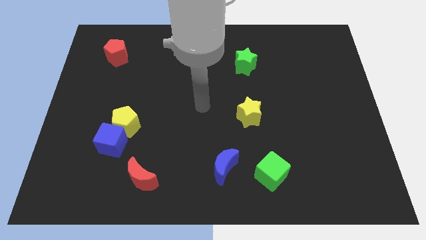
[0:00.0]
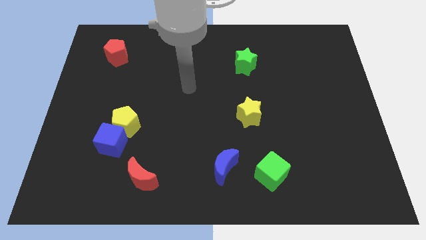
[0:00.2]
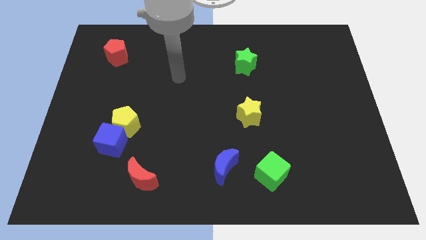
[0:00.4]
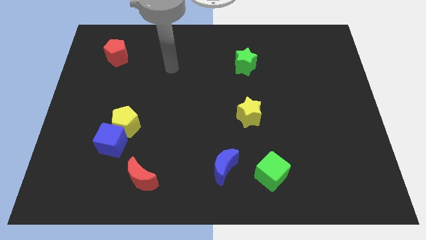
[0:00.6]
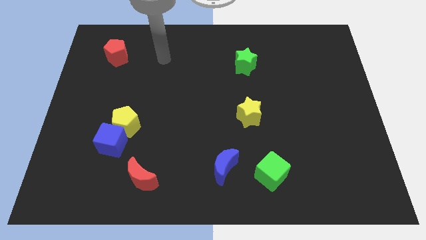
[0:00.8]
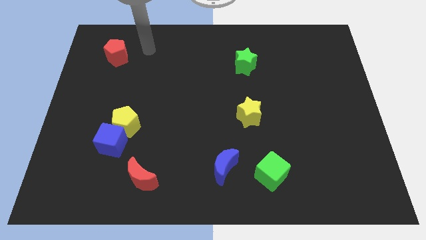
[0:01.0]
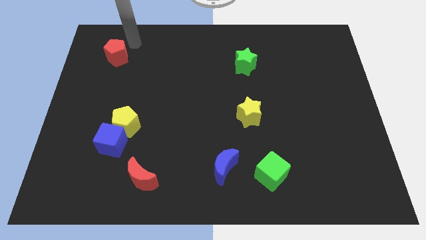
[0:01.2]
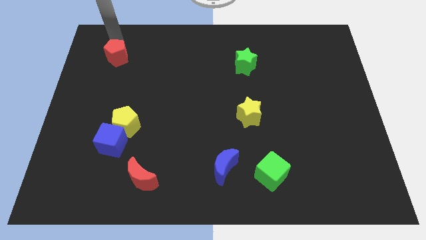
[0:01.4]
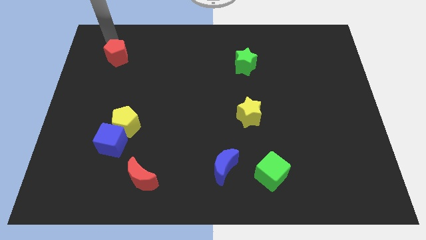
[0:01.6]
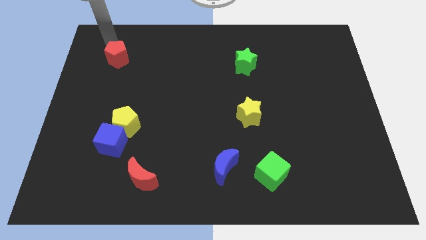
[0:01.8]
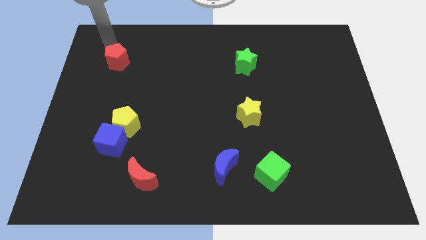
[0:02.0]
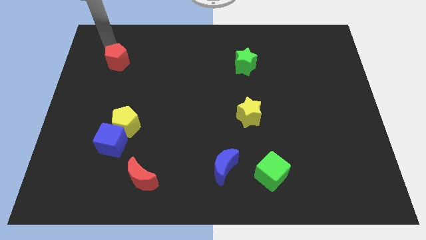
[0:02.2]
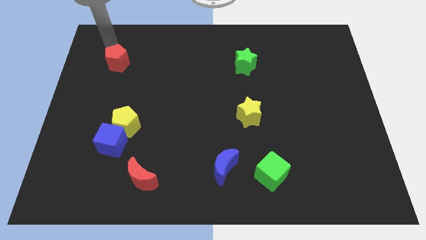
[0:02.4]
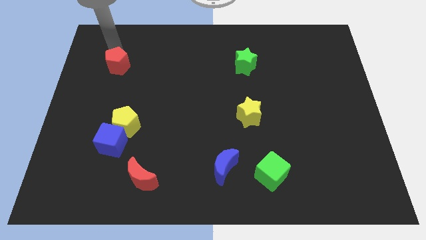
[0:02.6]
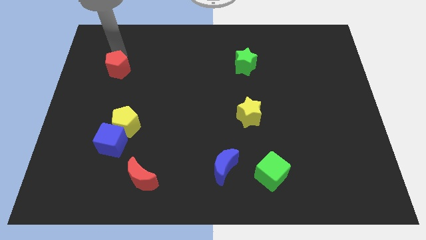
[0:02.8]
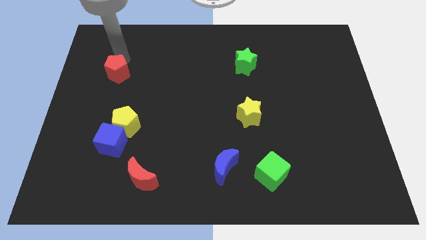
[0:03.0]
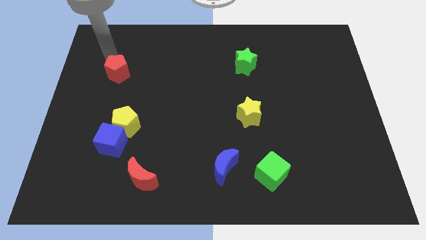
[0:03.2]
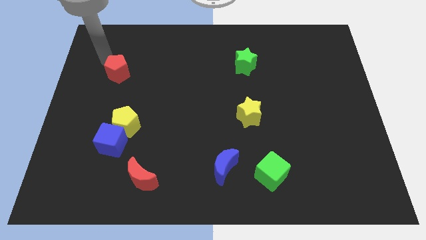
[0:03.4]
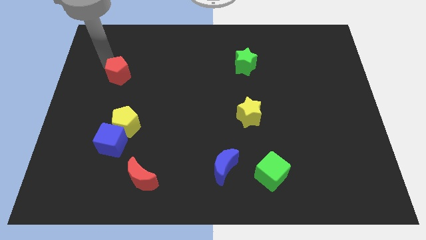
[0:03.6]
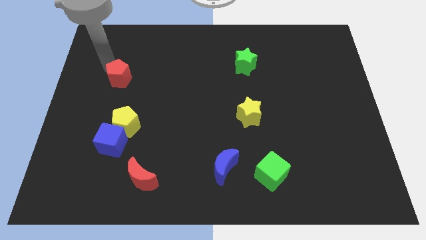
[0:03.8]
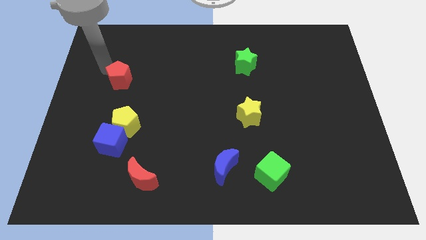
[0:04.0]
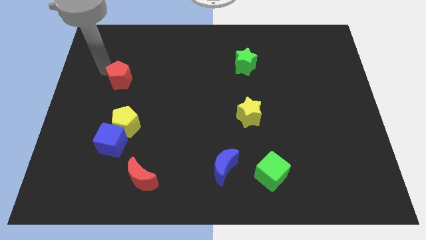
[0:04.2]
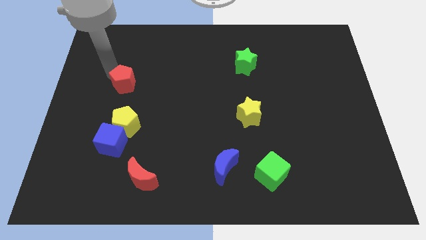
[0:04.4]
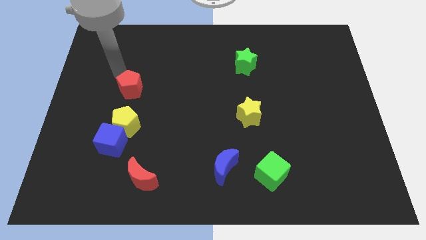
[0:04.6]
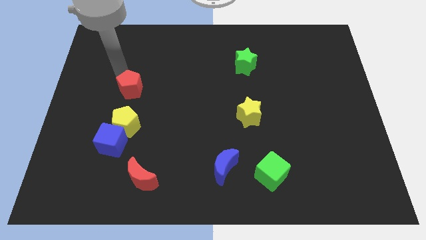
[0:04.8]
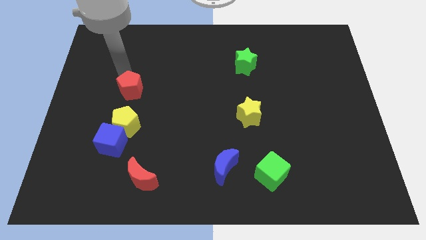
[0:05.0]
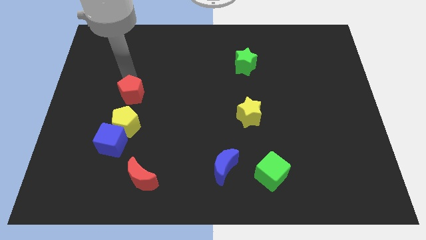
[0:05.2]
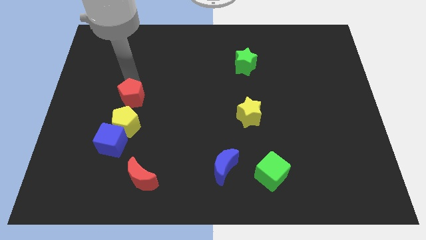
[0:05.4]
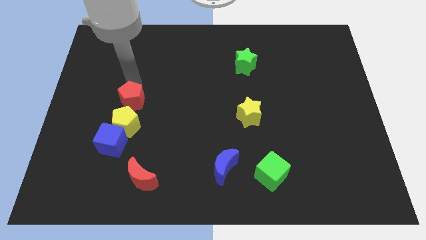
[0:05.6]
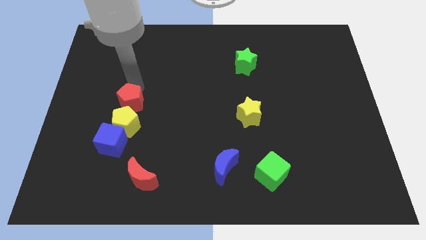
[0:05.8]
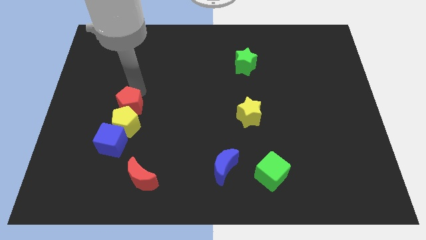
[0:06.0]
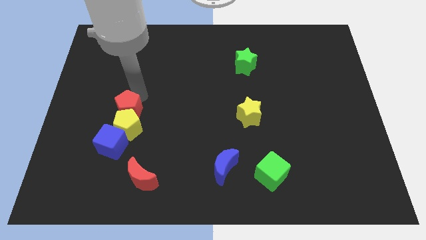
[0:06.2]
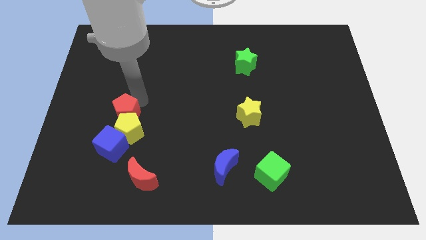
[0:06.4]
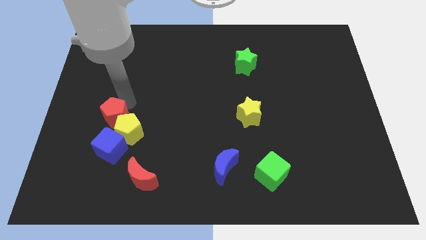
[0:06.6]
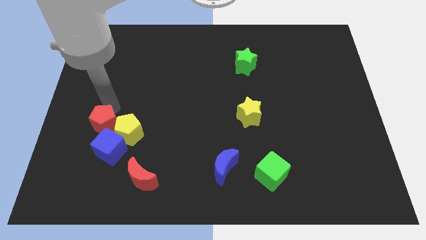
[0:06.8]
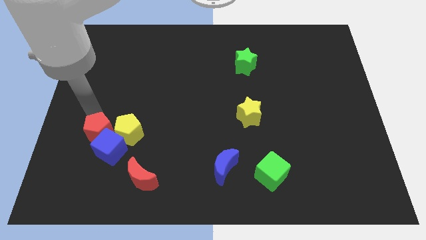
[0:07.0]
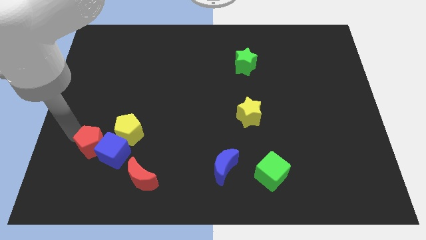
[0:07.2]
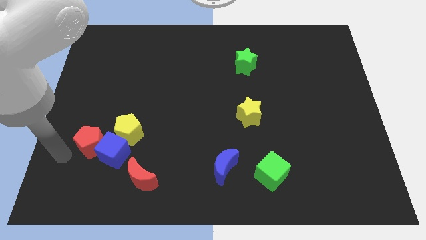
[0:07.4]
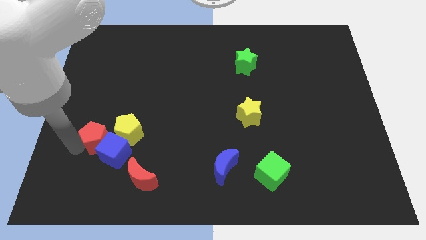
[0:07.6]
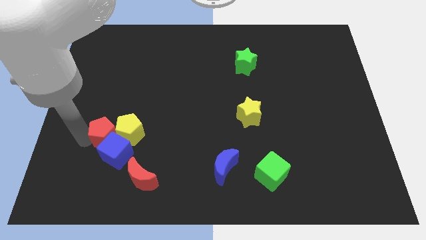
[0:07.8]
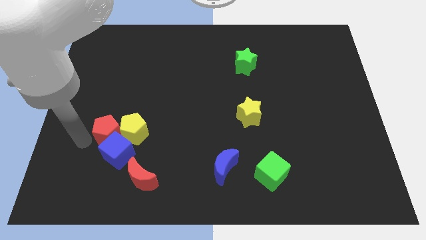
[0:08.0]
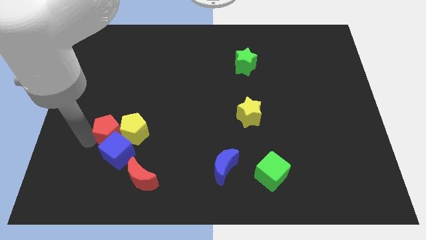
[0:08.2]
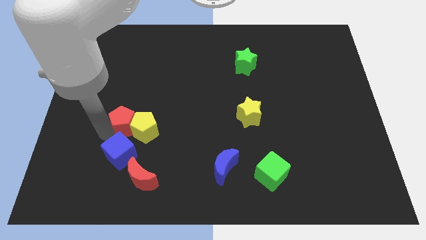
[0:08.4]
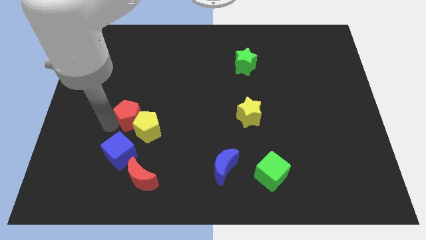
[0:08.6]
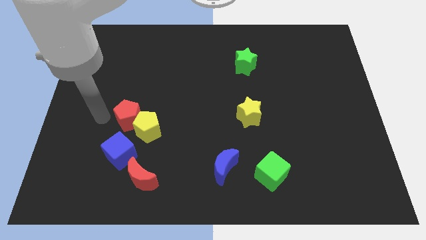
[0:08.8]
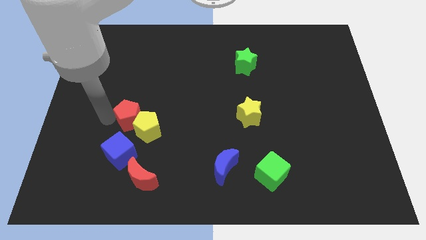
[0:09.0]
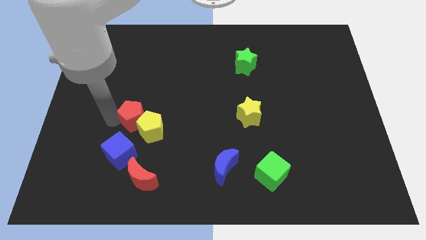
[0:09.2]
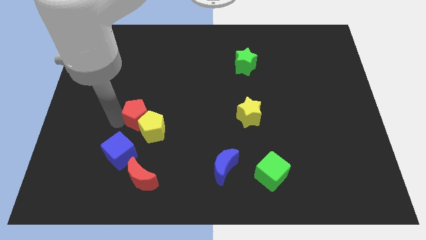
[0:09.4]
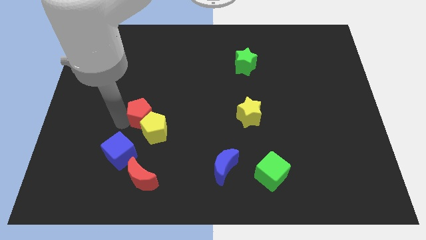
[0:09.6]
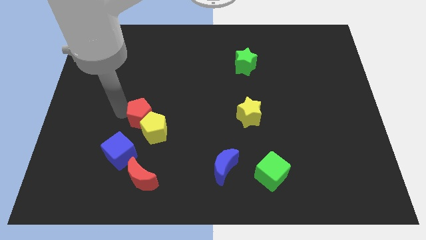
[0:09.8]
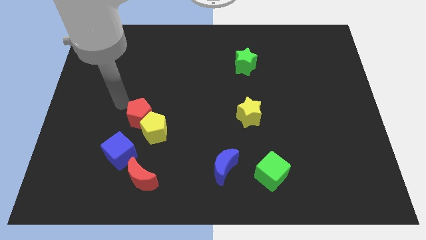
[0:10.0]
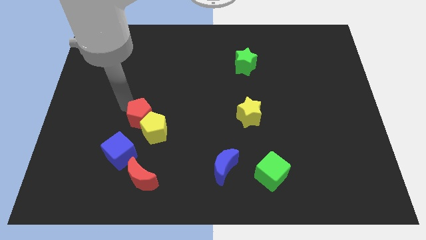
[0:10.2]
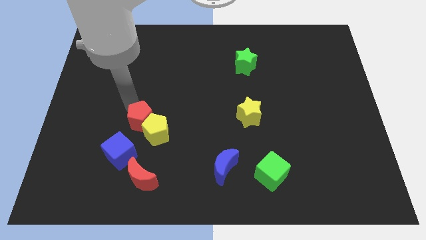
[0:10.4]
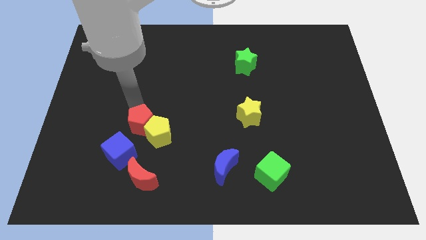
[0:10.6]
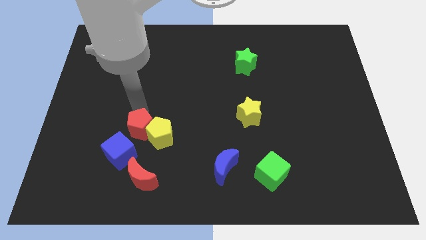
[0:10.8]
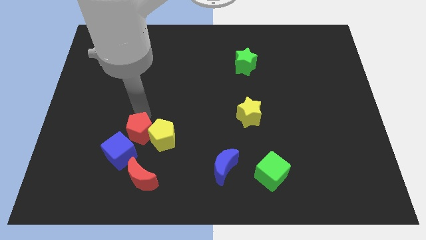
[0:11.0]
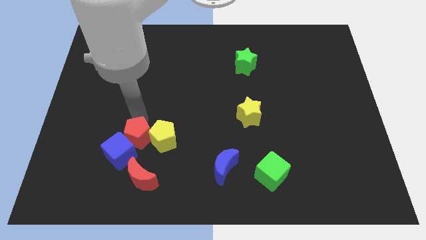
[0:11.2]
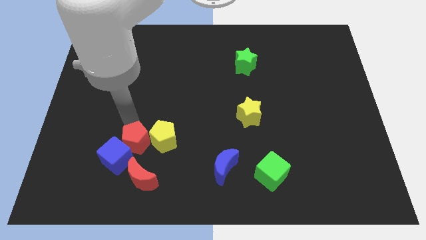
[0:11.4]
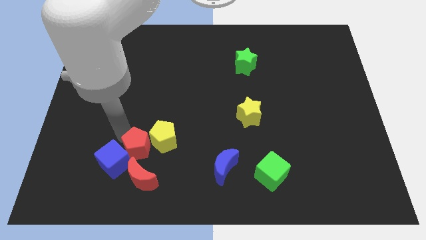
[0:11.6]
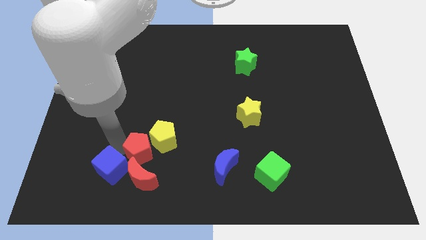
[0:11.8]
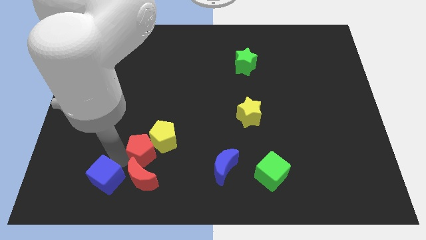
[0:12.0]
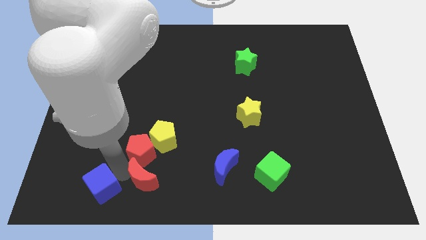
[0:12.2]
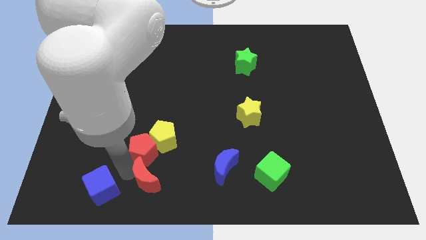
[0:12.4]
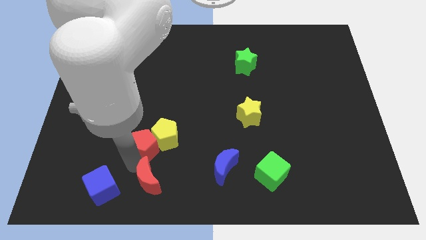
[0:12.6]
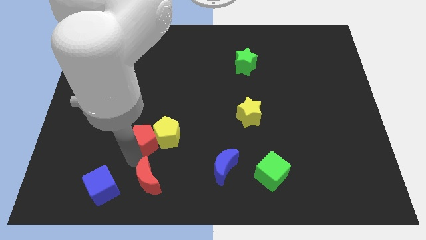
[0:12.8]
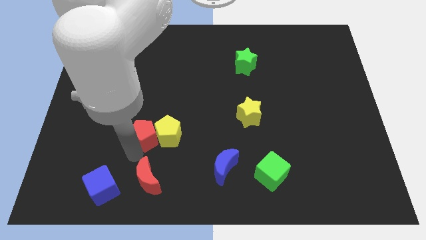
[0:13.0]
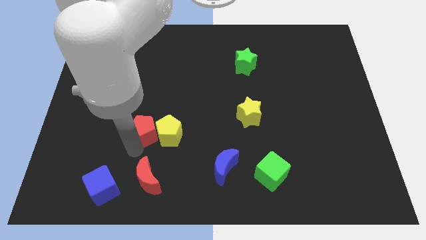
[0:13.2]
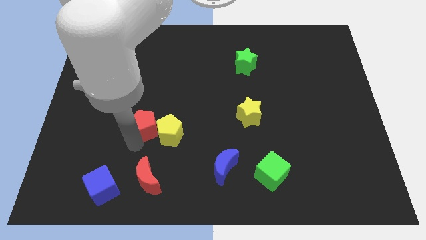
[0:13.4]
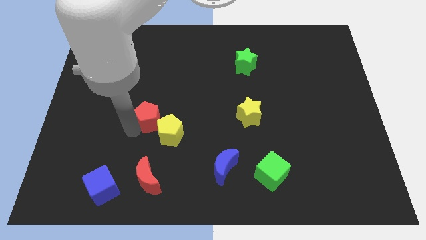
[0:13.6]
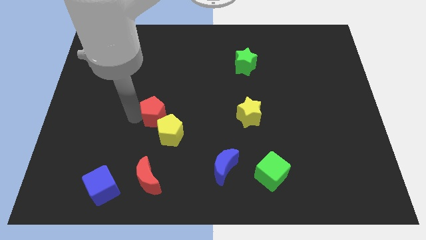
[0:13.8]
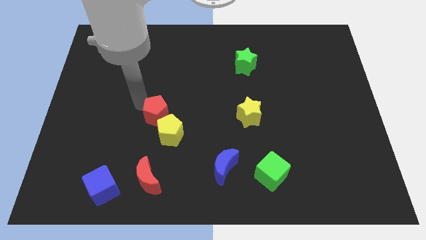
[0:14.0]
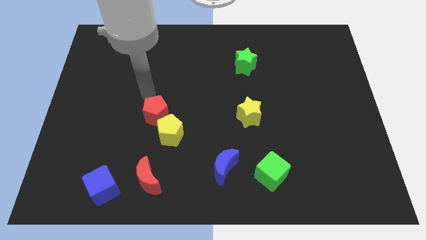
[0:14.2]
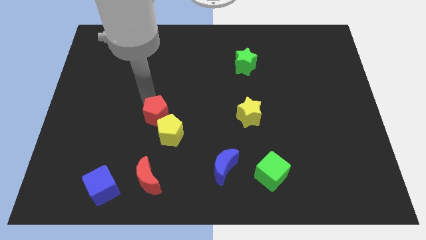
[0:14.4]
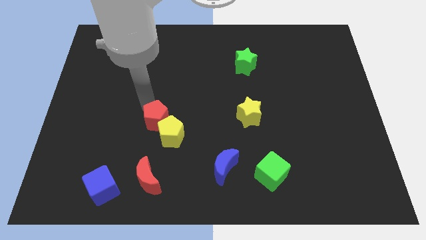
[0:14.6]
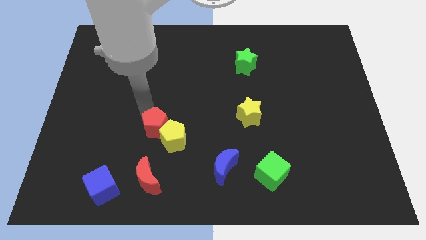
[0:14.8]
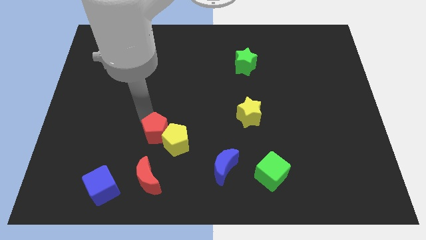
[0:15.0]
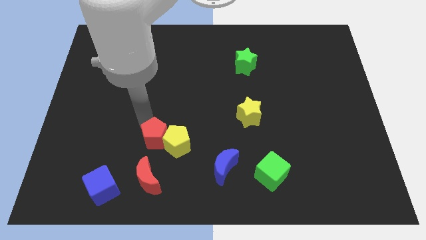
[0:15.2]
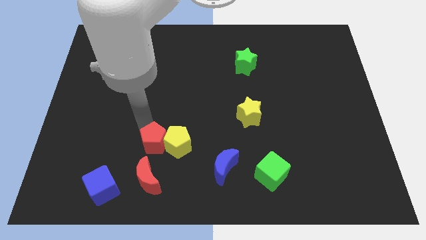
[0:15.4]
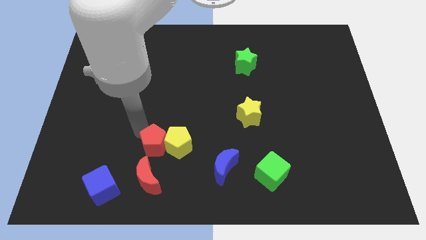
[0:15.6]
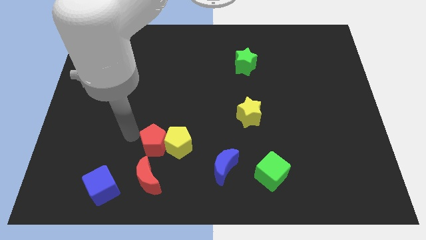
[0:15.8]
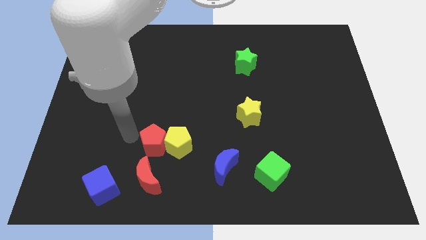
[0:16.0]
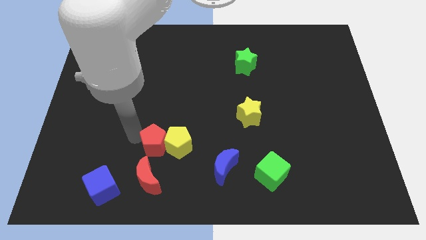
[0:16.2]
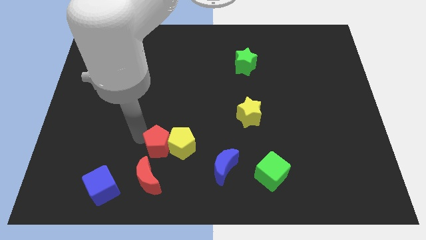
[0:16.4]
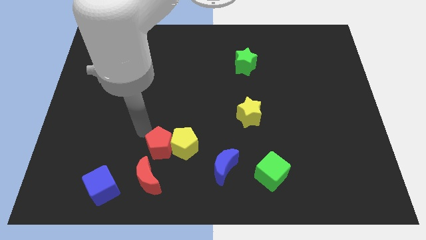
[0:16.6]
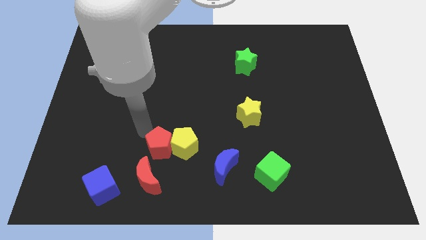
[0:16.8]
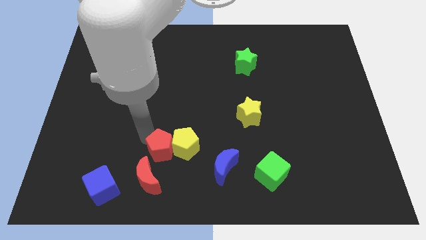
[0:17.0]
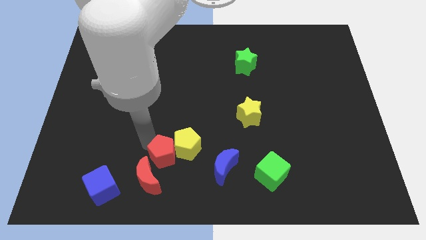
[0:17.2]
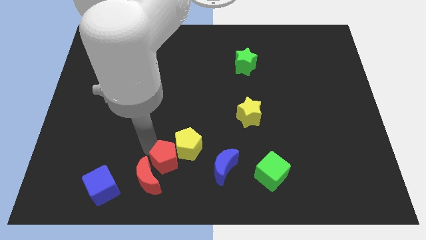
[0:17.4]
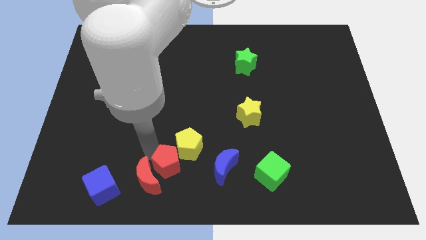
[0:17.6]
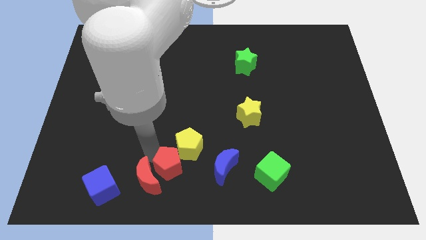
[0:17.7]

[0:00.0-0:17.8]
move the red pentagon to the bottom
